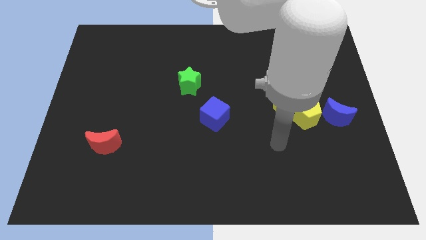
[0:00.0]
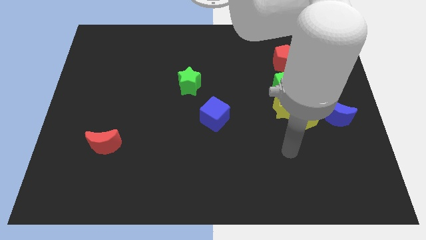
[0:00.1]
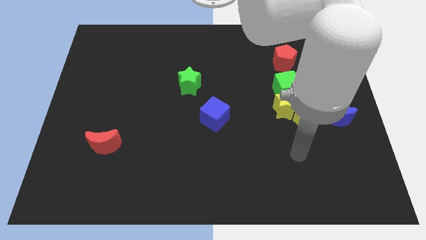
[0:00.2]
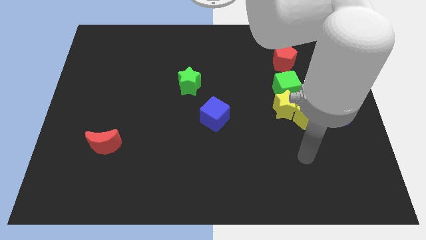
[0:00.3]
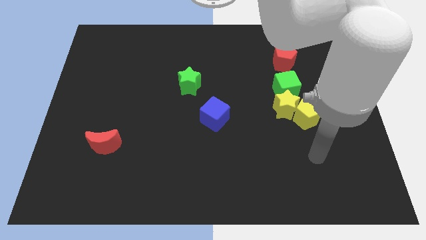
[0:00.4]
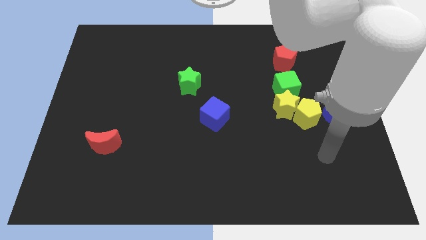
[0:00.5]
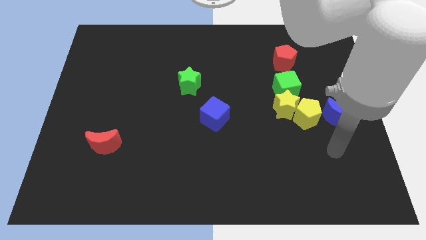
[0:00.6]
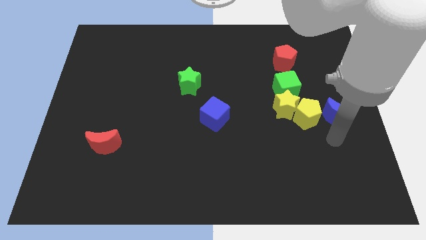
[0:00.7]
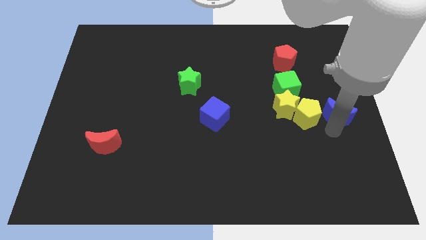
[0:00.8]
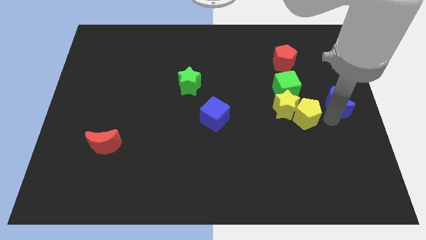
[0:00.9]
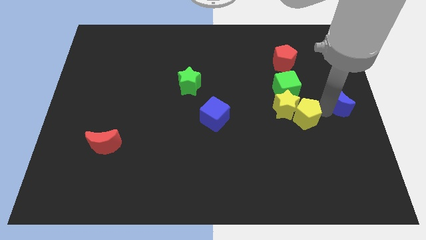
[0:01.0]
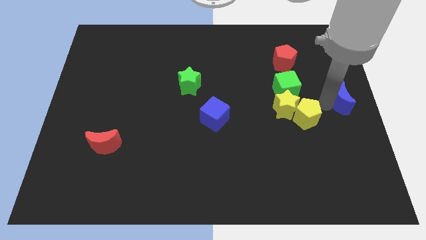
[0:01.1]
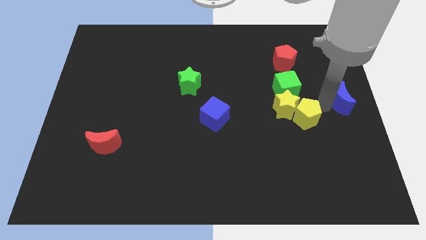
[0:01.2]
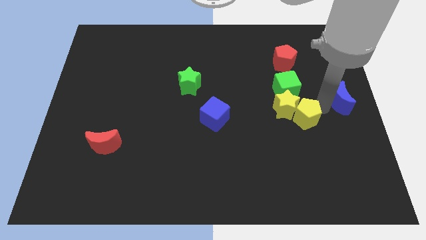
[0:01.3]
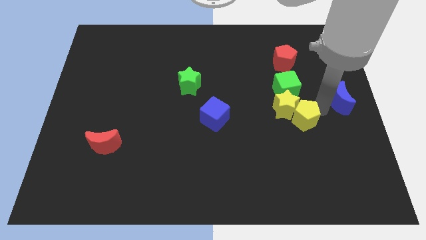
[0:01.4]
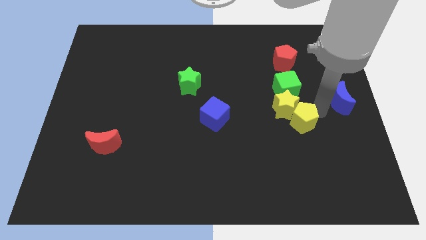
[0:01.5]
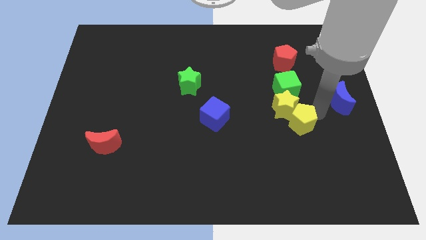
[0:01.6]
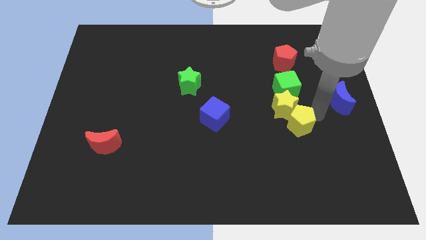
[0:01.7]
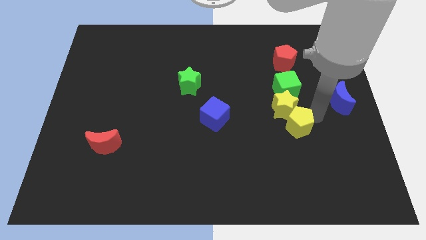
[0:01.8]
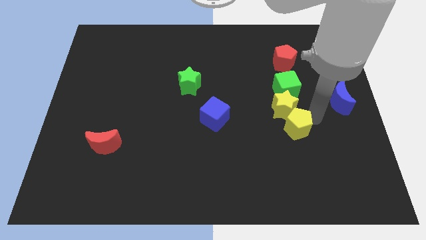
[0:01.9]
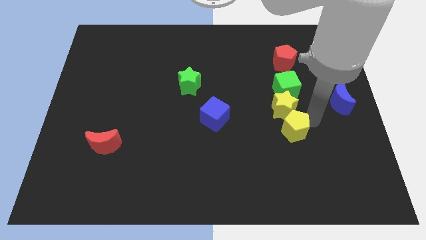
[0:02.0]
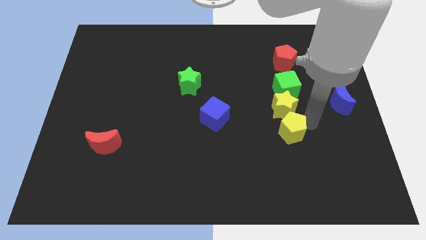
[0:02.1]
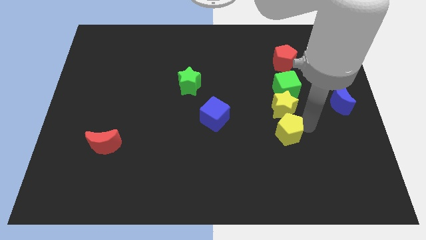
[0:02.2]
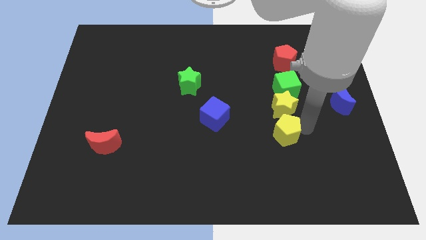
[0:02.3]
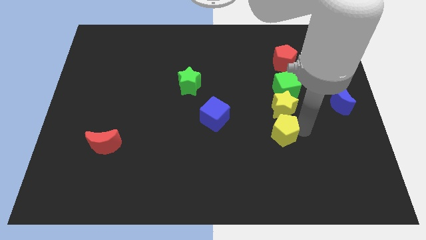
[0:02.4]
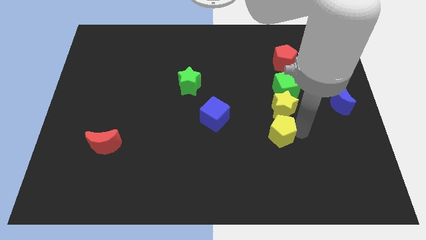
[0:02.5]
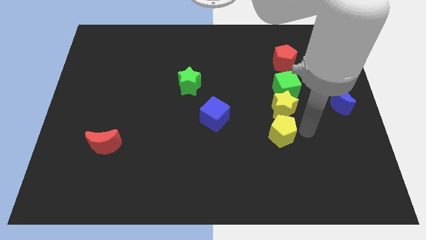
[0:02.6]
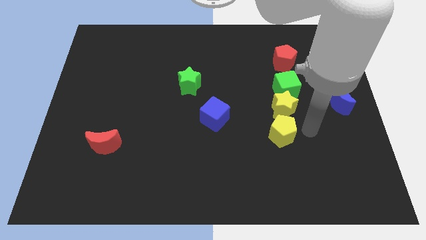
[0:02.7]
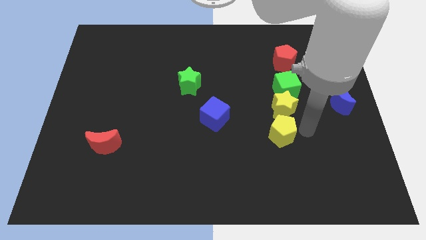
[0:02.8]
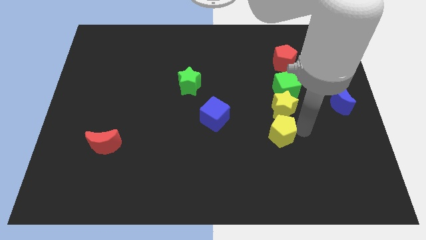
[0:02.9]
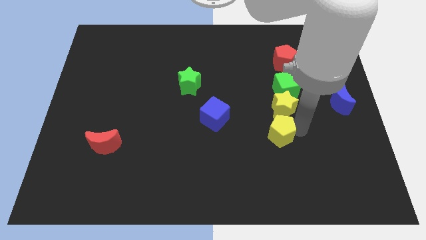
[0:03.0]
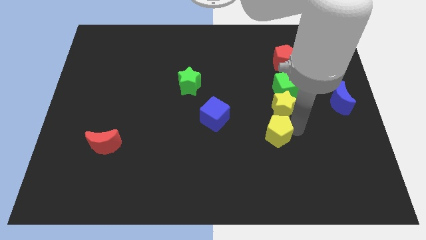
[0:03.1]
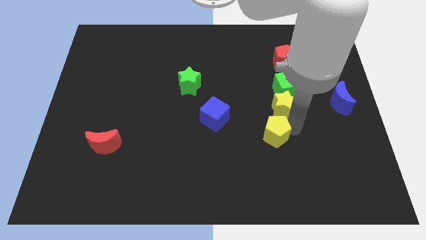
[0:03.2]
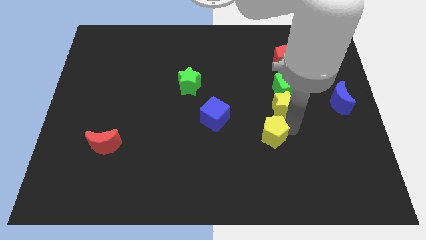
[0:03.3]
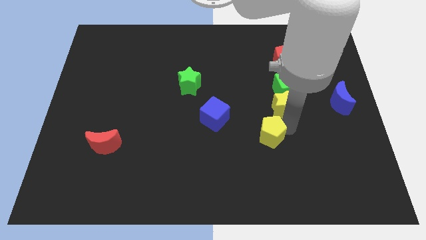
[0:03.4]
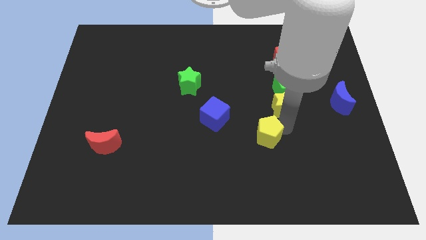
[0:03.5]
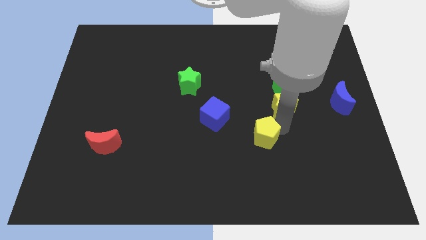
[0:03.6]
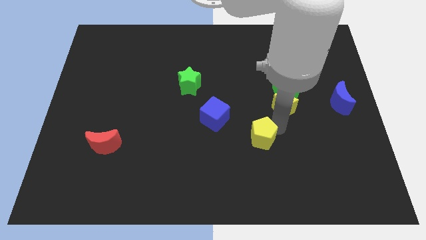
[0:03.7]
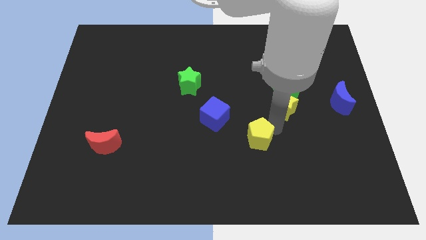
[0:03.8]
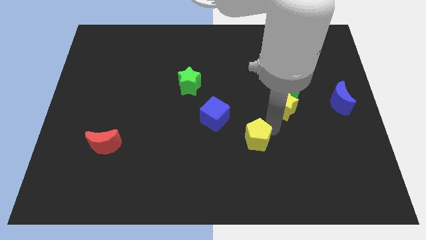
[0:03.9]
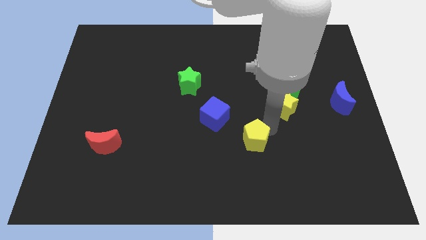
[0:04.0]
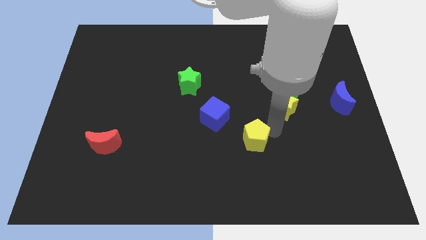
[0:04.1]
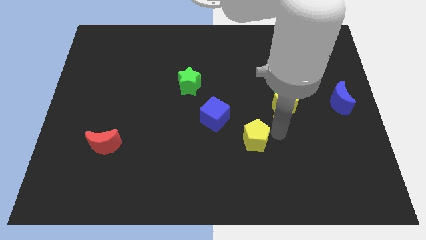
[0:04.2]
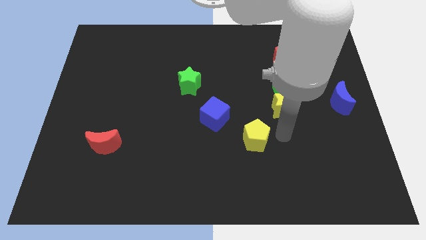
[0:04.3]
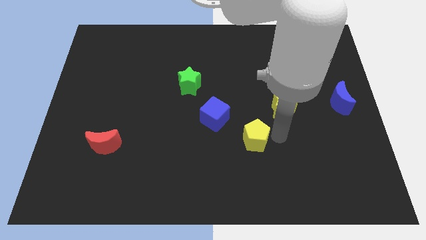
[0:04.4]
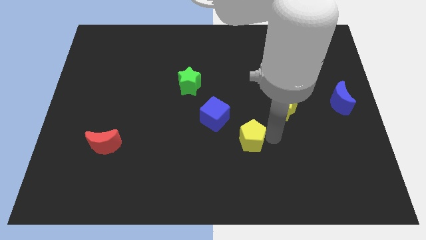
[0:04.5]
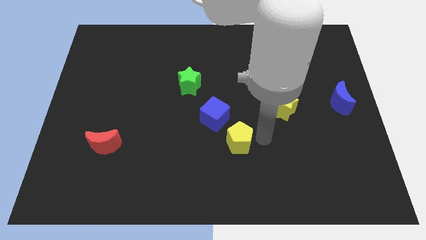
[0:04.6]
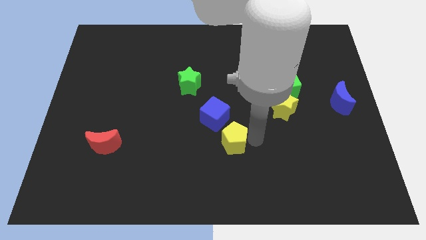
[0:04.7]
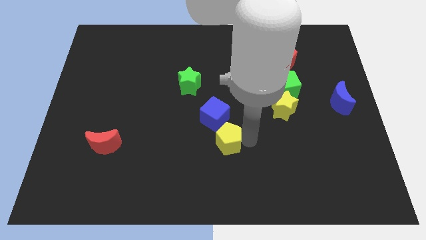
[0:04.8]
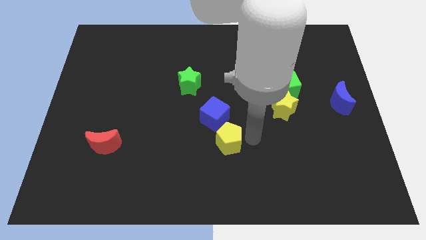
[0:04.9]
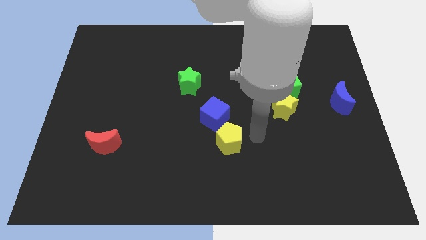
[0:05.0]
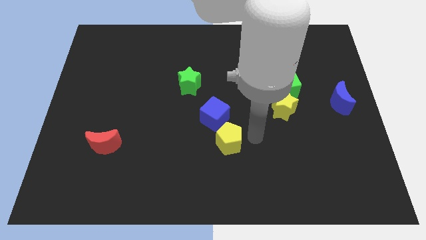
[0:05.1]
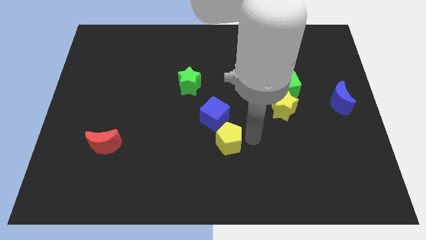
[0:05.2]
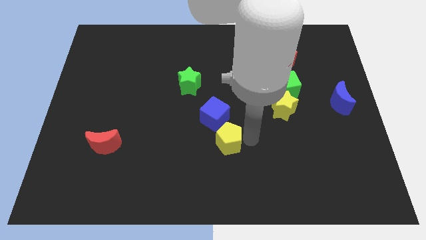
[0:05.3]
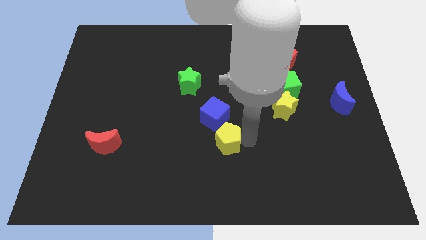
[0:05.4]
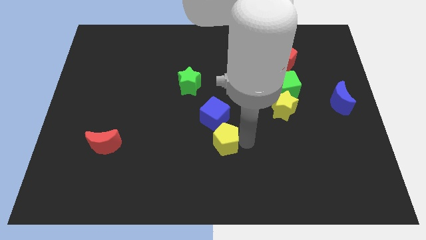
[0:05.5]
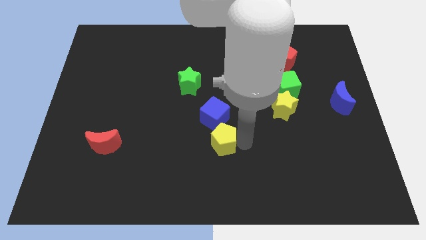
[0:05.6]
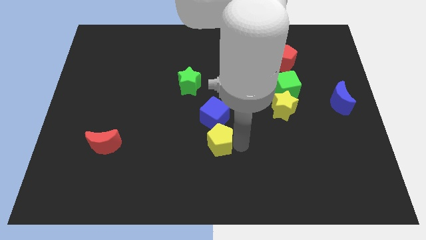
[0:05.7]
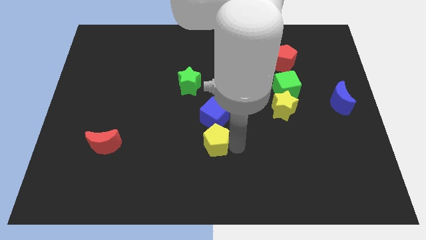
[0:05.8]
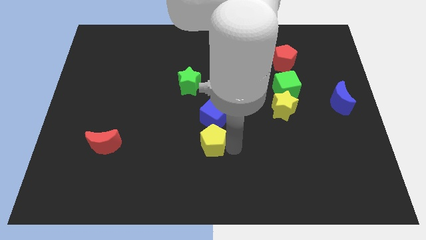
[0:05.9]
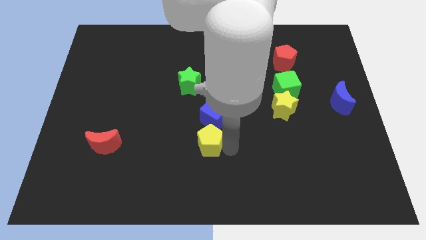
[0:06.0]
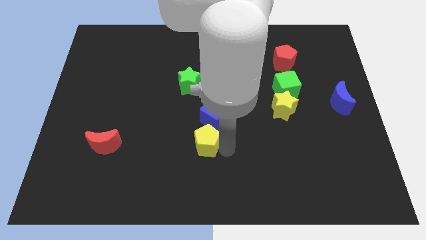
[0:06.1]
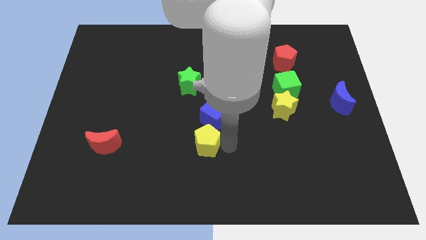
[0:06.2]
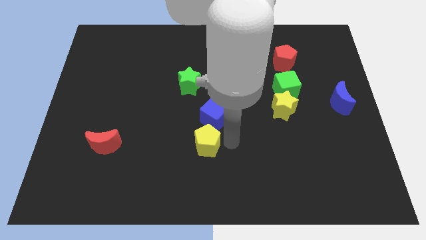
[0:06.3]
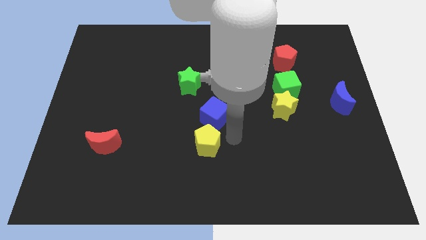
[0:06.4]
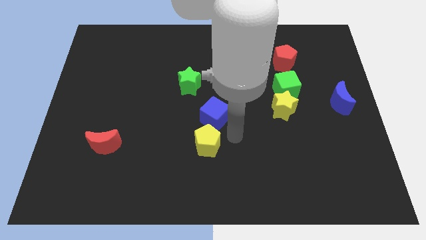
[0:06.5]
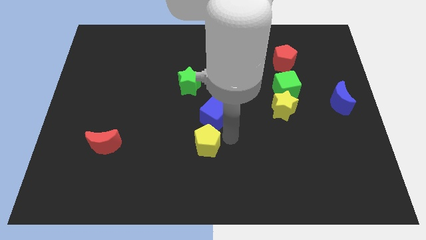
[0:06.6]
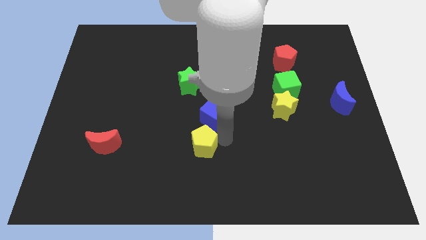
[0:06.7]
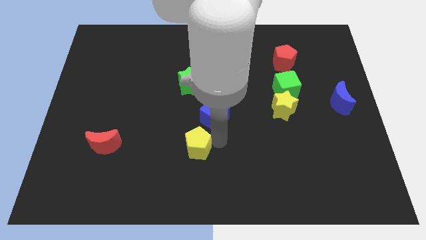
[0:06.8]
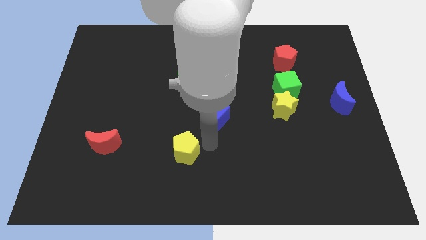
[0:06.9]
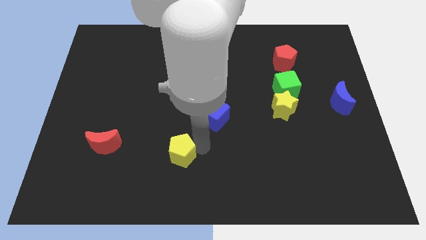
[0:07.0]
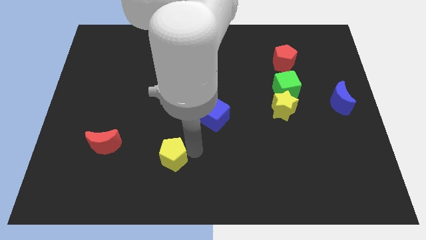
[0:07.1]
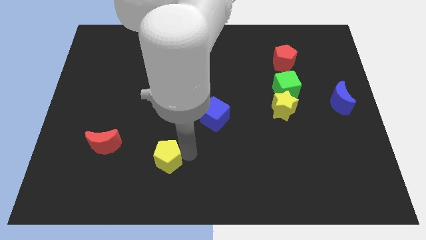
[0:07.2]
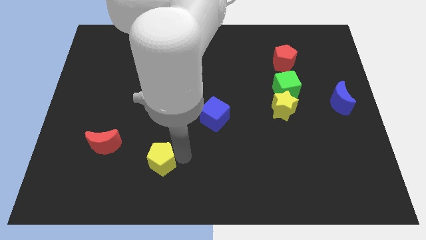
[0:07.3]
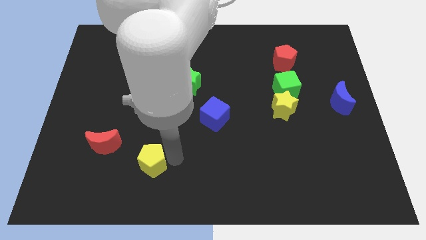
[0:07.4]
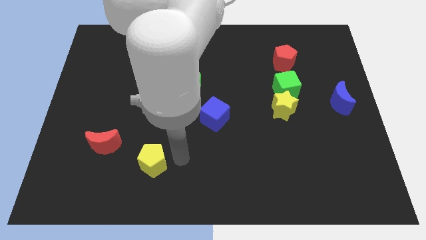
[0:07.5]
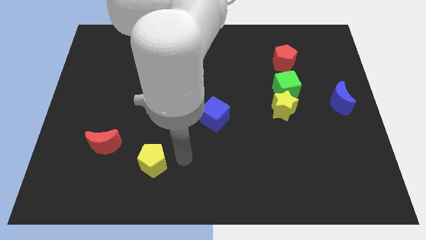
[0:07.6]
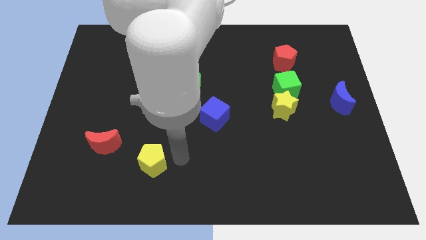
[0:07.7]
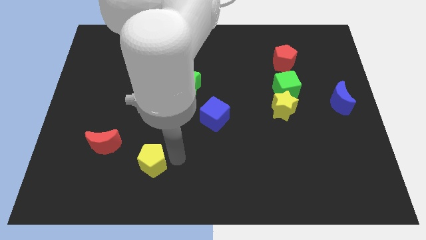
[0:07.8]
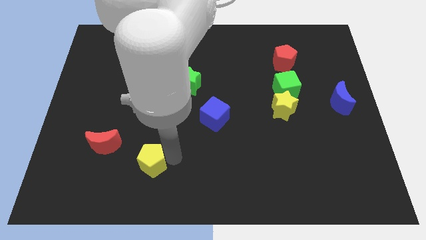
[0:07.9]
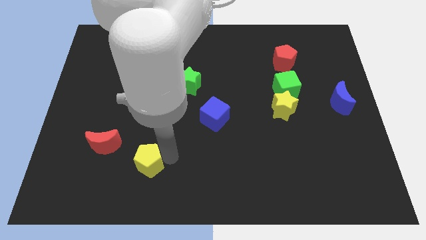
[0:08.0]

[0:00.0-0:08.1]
move the yellow pentagon to the bottom right side of the red moon
